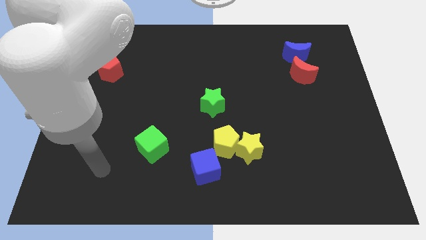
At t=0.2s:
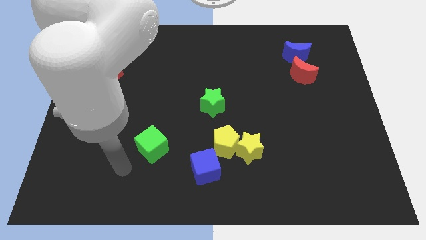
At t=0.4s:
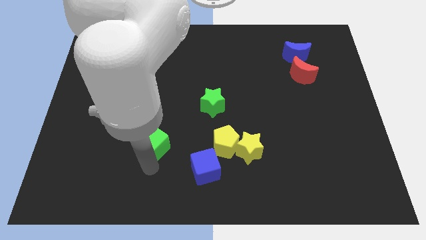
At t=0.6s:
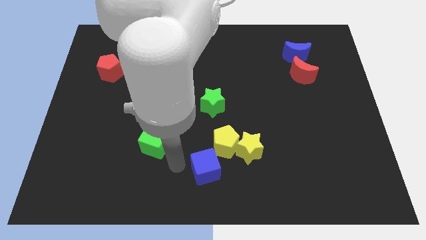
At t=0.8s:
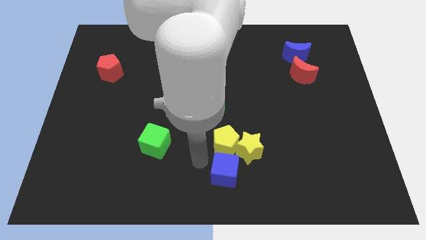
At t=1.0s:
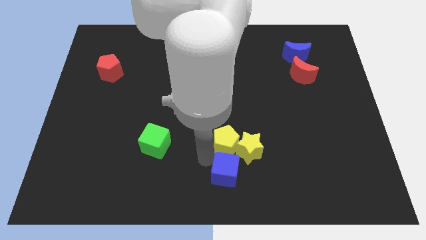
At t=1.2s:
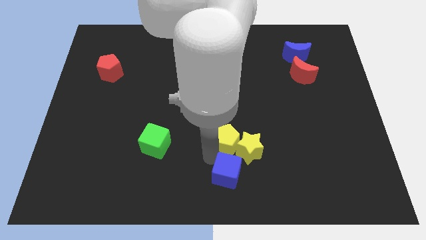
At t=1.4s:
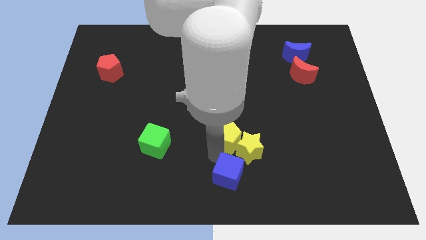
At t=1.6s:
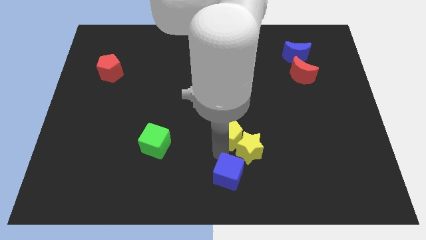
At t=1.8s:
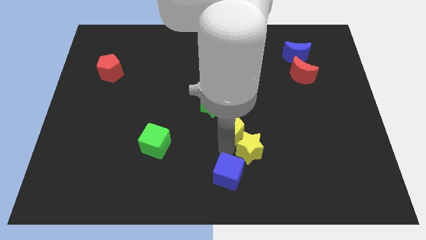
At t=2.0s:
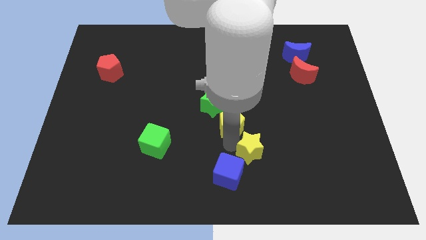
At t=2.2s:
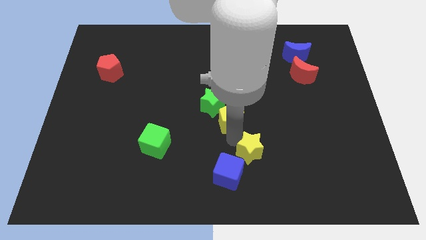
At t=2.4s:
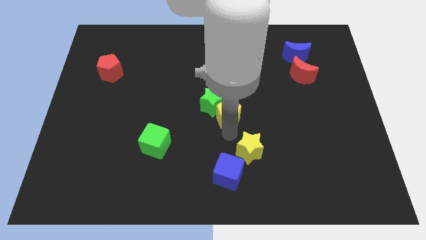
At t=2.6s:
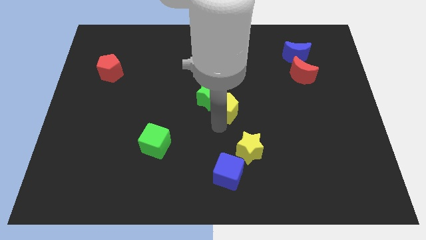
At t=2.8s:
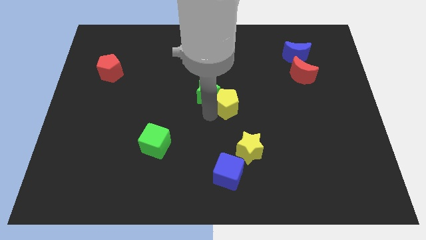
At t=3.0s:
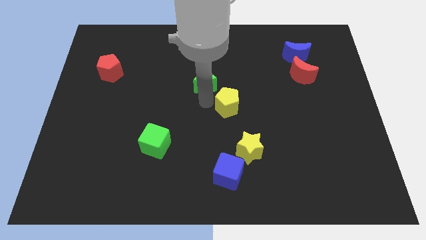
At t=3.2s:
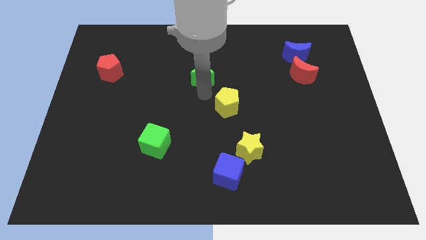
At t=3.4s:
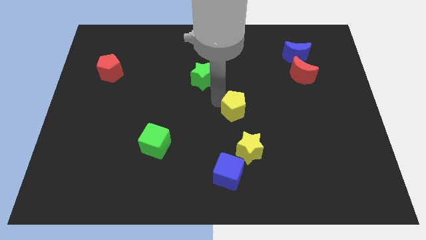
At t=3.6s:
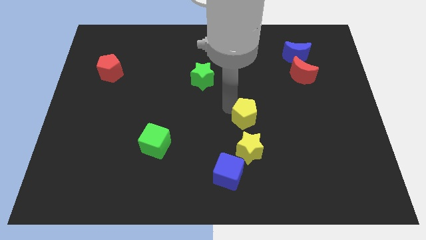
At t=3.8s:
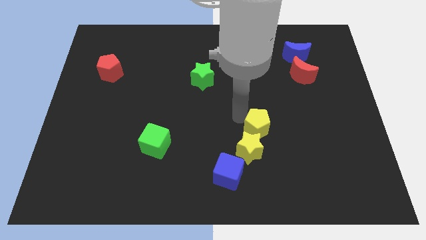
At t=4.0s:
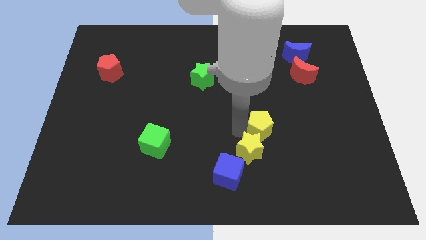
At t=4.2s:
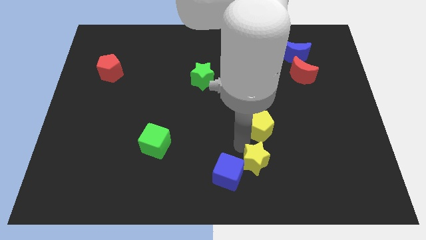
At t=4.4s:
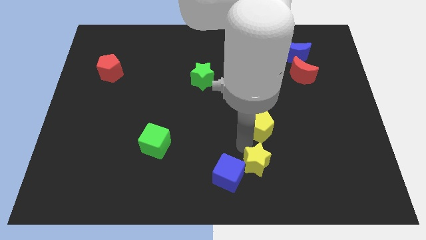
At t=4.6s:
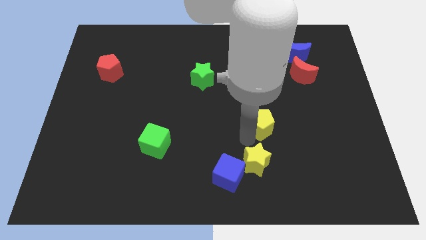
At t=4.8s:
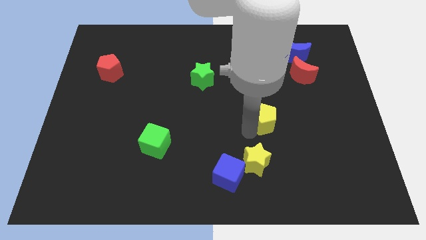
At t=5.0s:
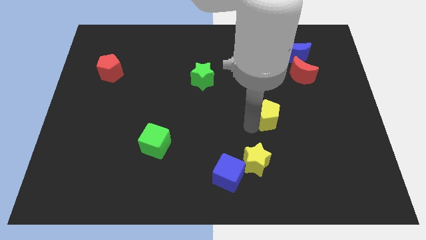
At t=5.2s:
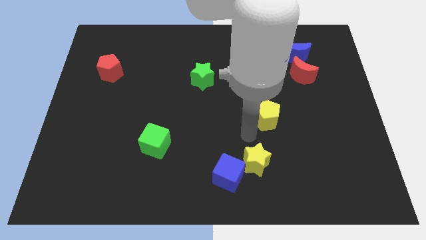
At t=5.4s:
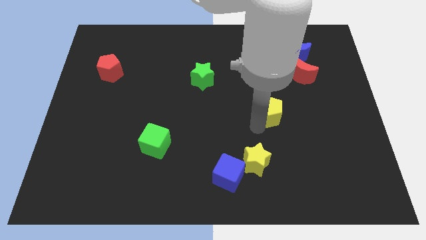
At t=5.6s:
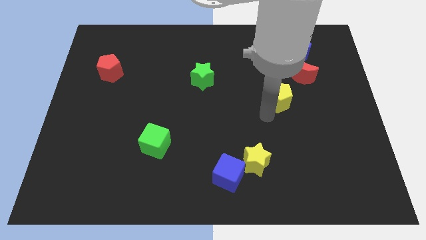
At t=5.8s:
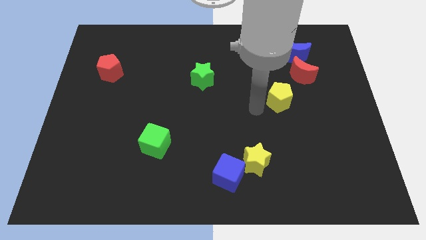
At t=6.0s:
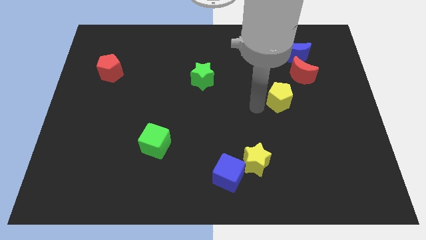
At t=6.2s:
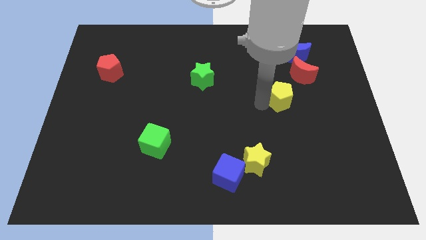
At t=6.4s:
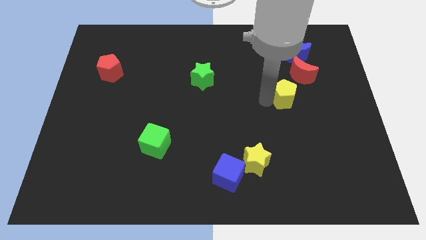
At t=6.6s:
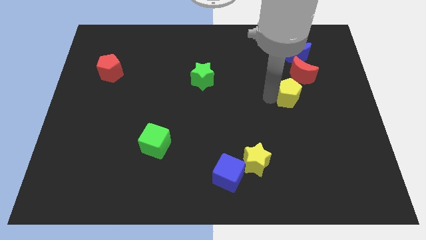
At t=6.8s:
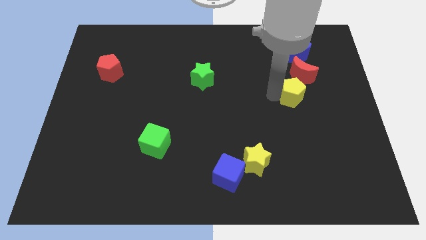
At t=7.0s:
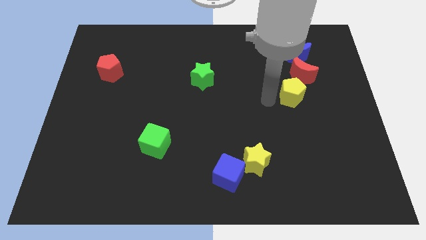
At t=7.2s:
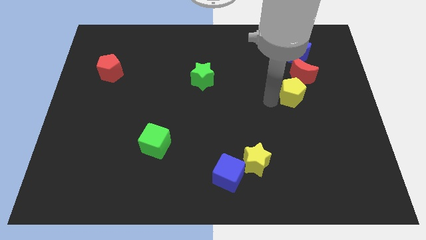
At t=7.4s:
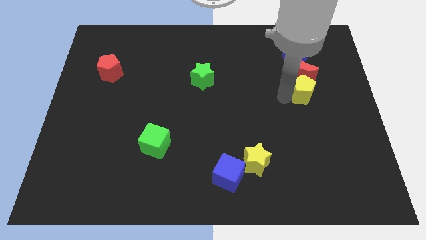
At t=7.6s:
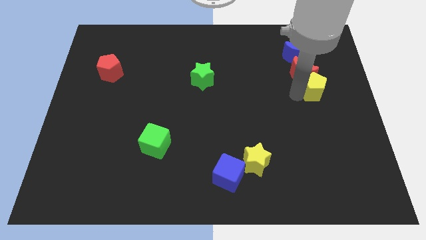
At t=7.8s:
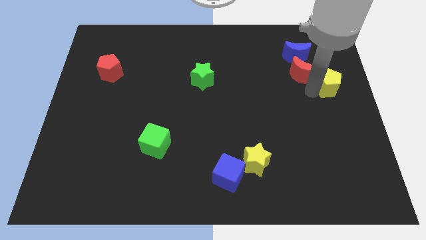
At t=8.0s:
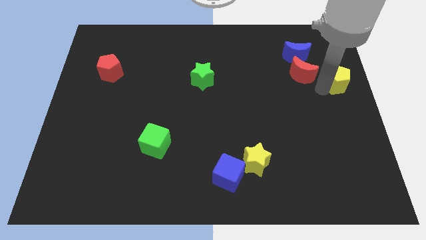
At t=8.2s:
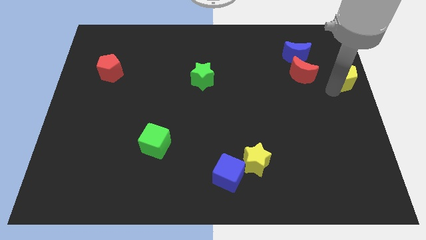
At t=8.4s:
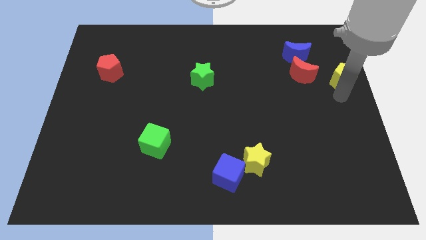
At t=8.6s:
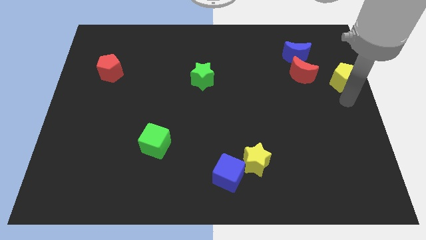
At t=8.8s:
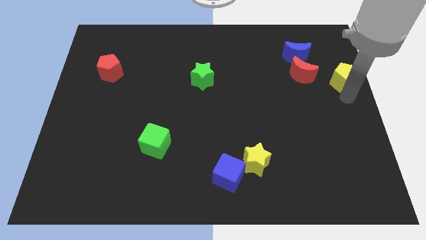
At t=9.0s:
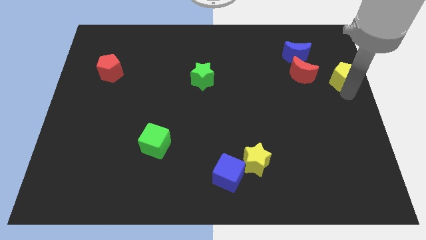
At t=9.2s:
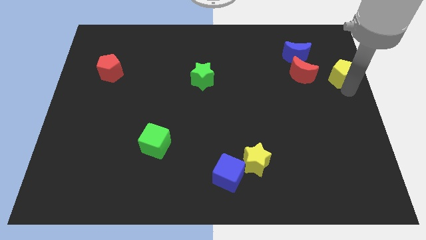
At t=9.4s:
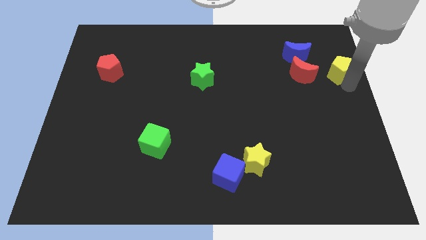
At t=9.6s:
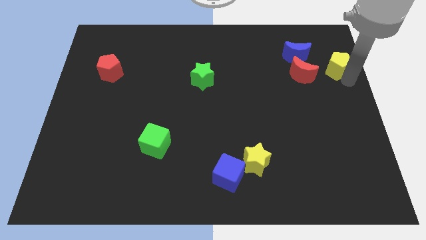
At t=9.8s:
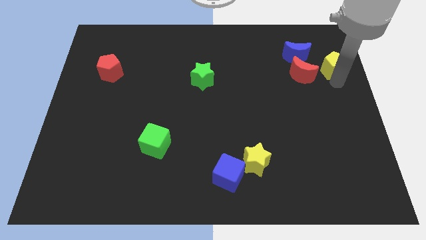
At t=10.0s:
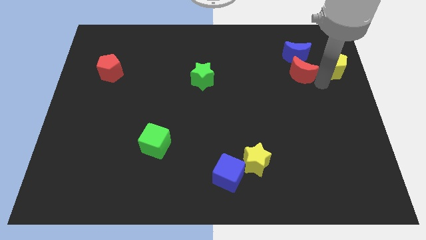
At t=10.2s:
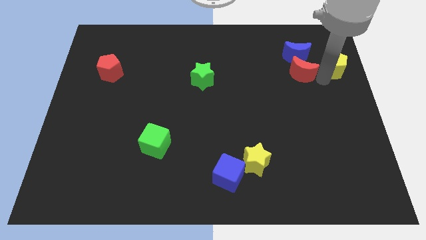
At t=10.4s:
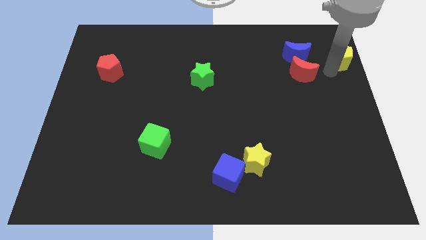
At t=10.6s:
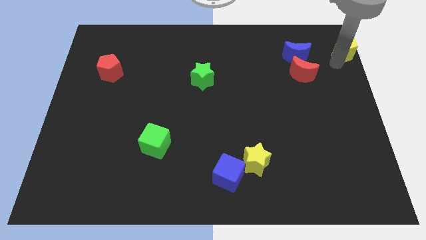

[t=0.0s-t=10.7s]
slide the yellow pentagon to the upper right corner

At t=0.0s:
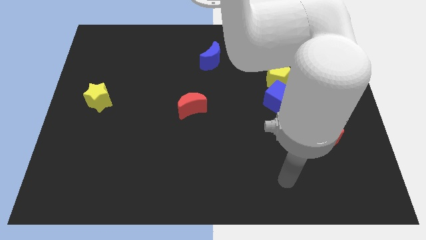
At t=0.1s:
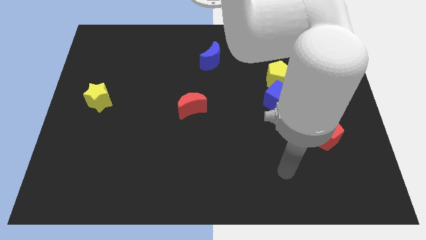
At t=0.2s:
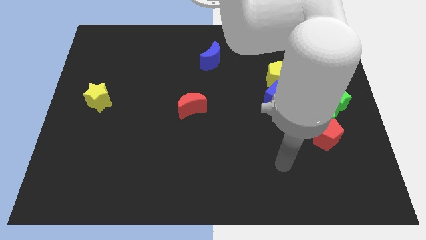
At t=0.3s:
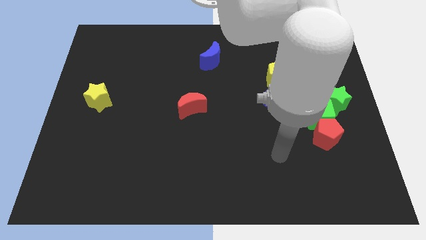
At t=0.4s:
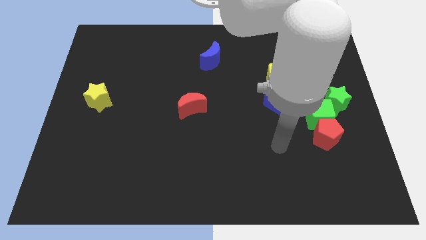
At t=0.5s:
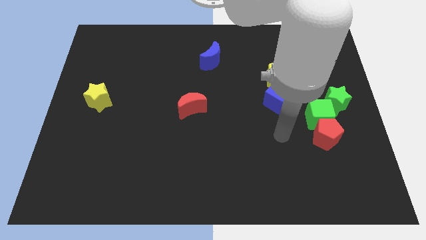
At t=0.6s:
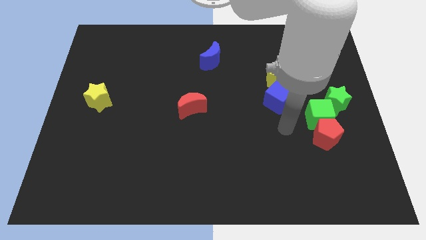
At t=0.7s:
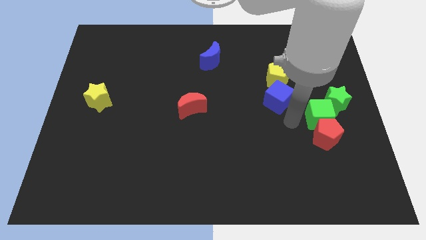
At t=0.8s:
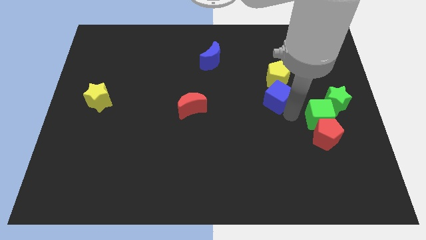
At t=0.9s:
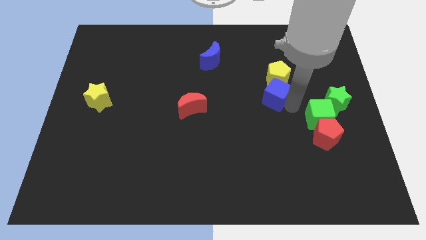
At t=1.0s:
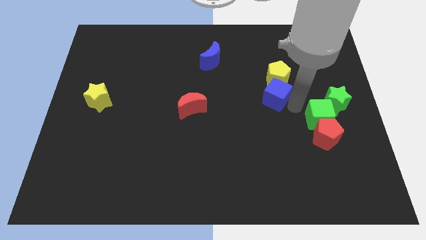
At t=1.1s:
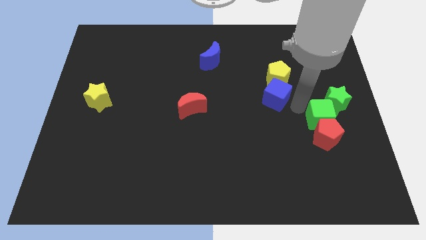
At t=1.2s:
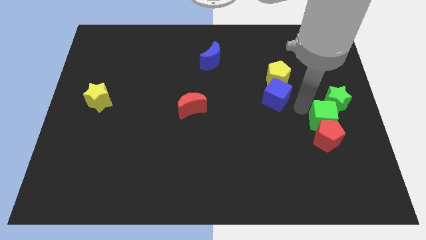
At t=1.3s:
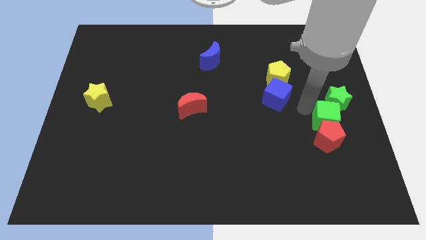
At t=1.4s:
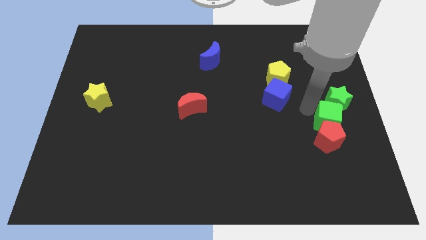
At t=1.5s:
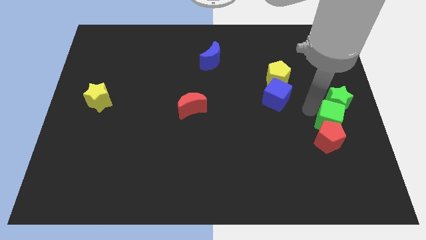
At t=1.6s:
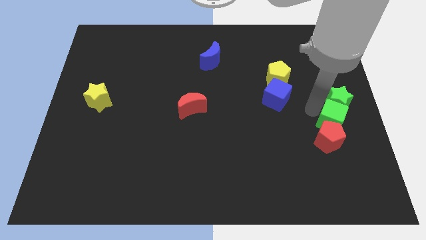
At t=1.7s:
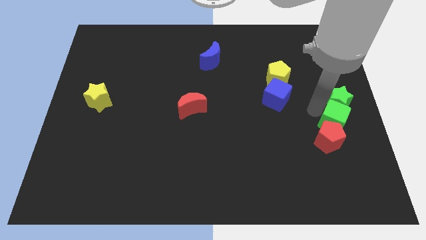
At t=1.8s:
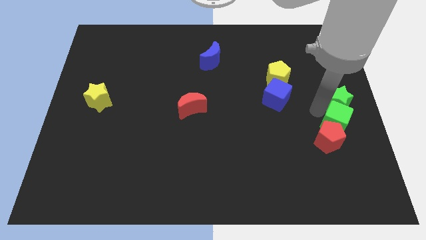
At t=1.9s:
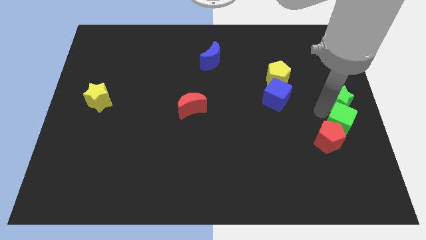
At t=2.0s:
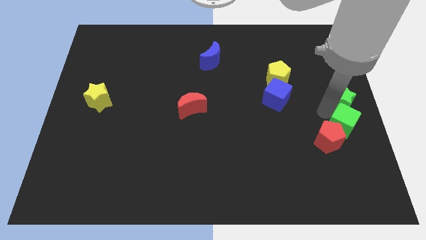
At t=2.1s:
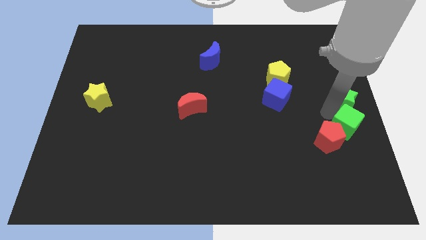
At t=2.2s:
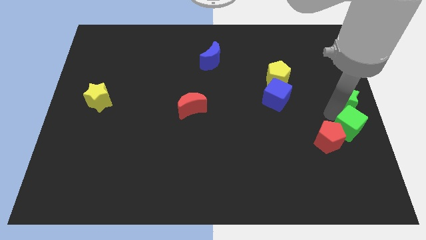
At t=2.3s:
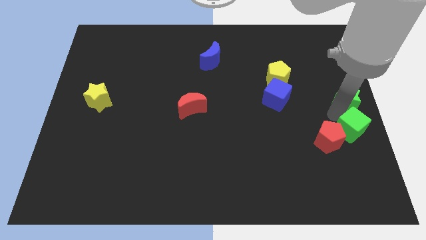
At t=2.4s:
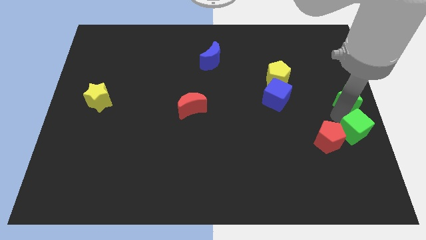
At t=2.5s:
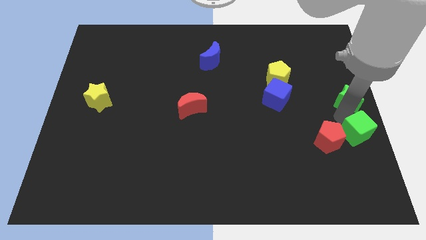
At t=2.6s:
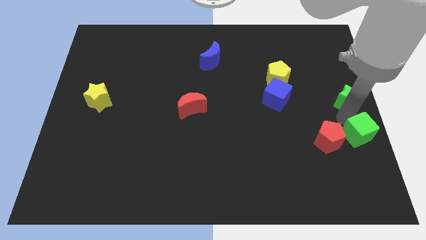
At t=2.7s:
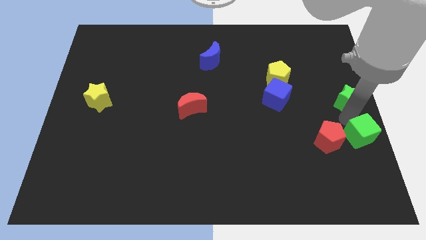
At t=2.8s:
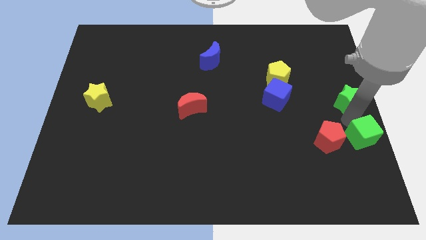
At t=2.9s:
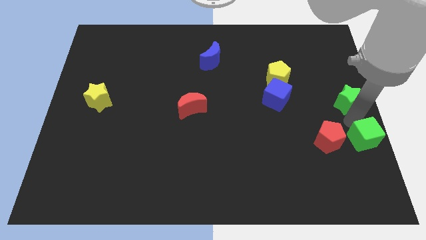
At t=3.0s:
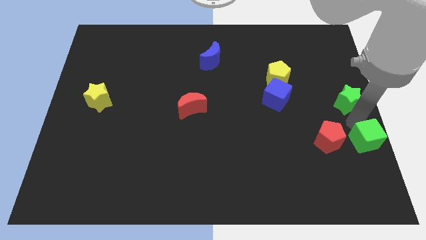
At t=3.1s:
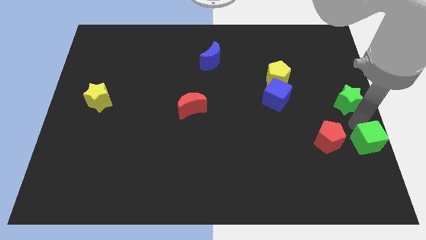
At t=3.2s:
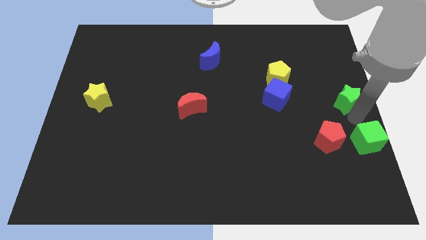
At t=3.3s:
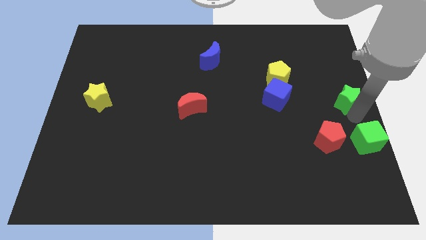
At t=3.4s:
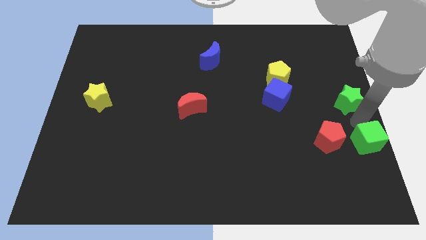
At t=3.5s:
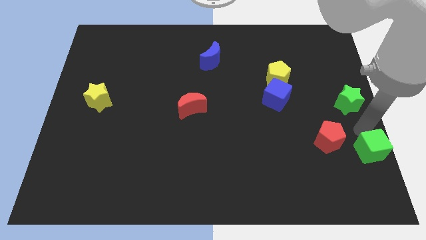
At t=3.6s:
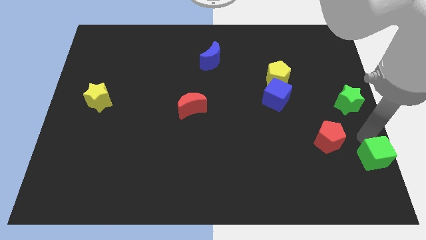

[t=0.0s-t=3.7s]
put the green cube to the bottom right corner
